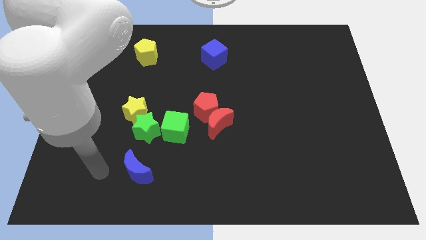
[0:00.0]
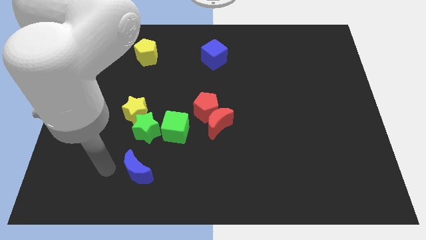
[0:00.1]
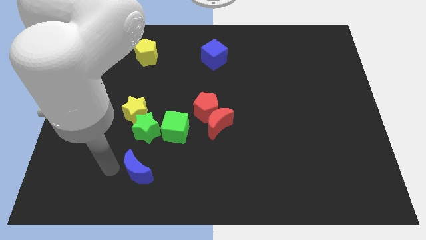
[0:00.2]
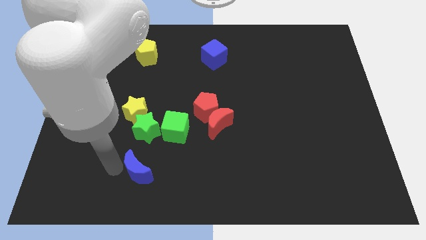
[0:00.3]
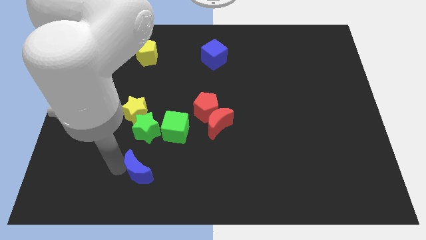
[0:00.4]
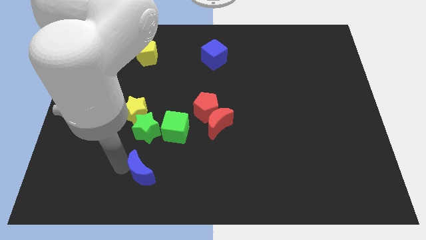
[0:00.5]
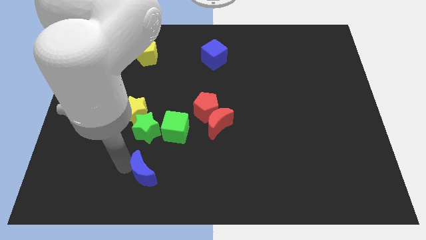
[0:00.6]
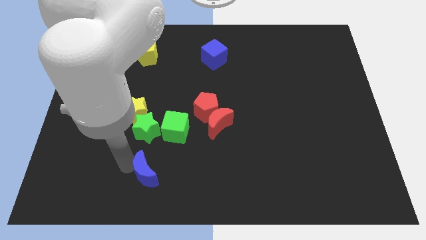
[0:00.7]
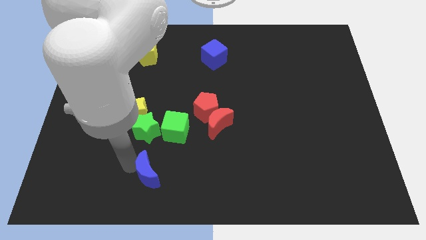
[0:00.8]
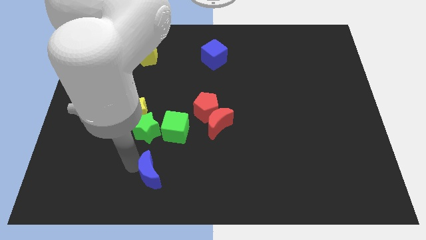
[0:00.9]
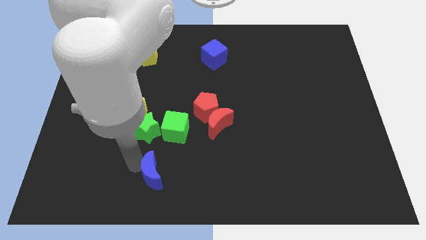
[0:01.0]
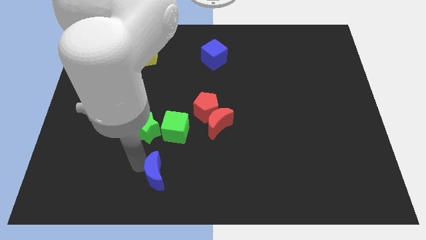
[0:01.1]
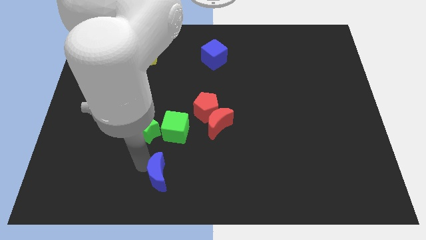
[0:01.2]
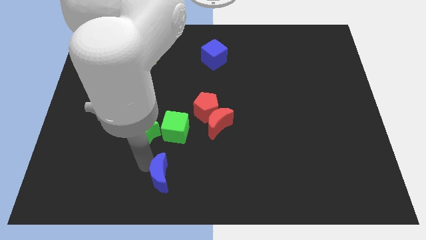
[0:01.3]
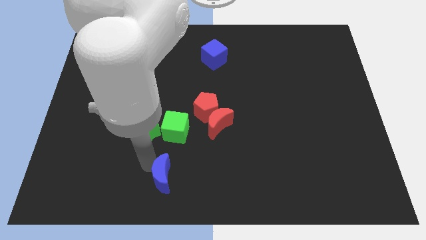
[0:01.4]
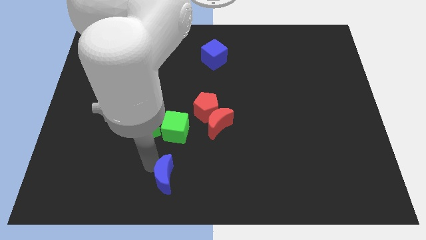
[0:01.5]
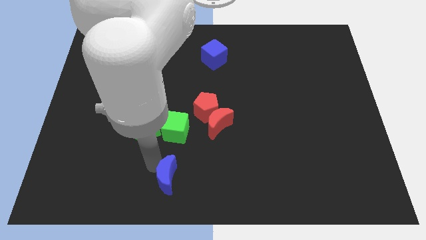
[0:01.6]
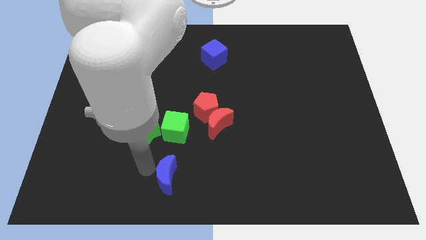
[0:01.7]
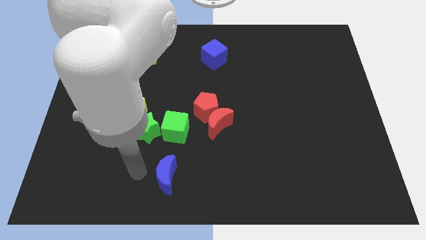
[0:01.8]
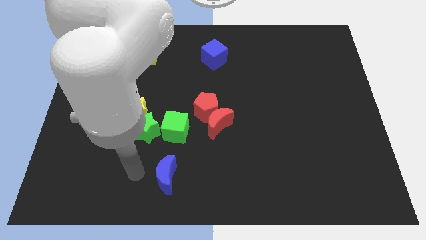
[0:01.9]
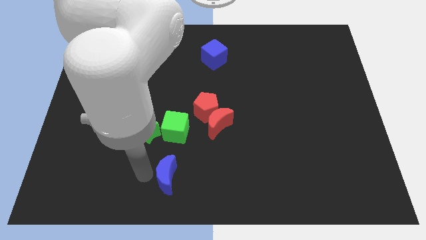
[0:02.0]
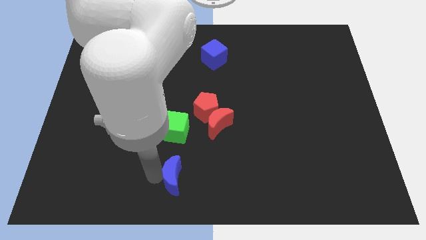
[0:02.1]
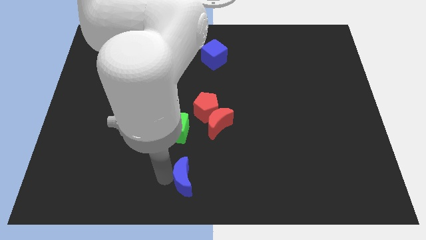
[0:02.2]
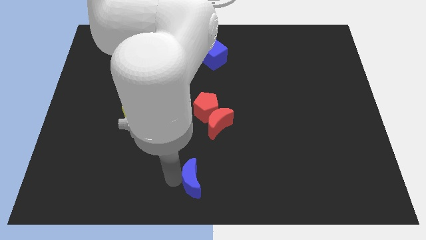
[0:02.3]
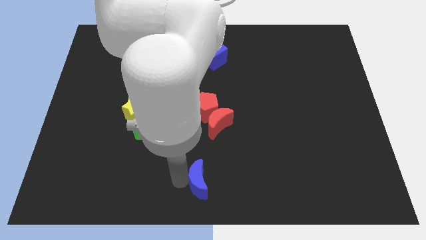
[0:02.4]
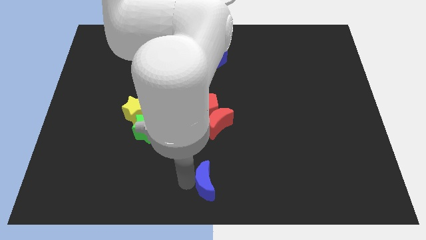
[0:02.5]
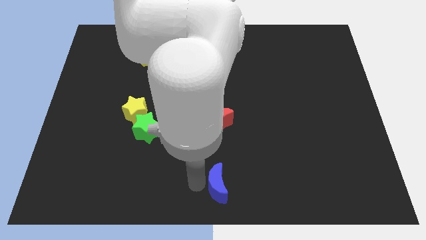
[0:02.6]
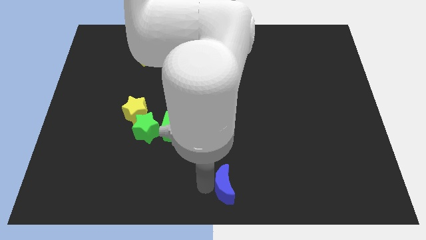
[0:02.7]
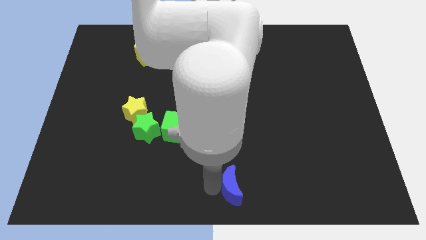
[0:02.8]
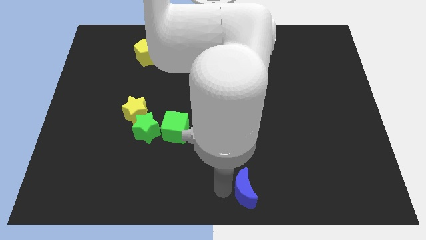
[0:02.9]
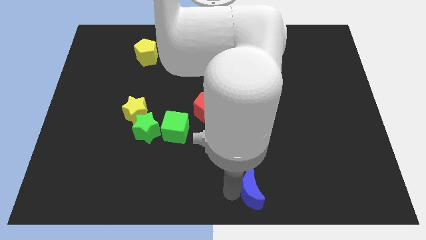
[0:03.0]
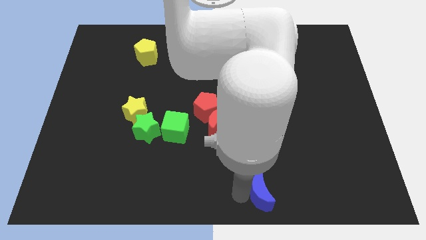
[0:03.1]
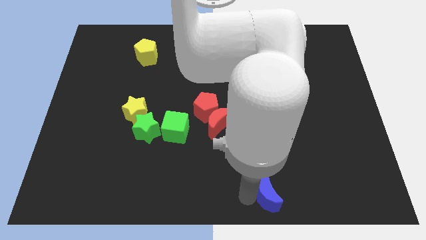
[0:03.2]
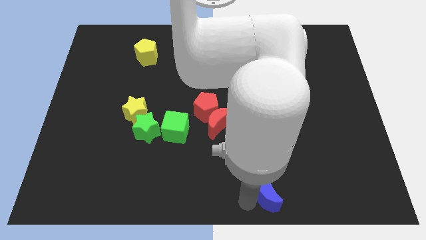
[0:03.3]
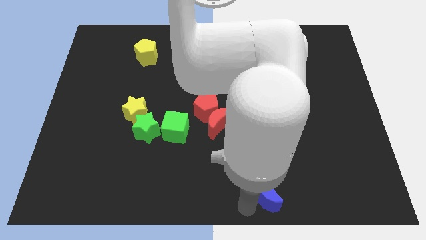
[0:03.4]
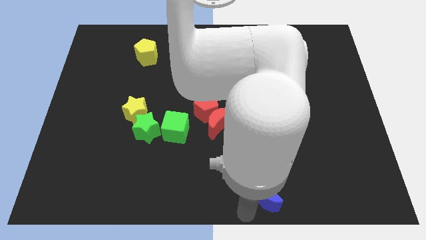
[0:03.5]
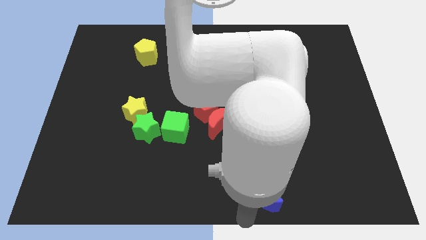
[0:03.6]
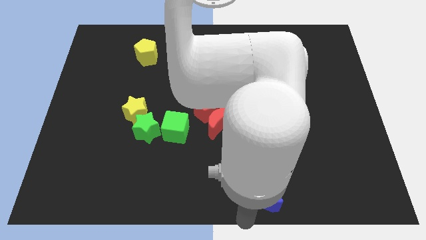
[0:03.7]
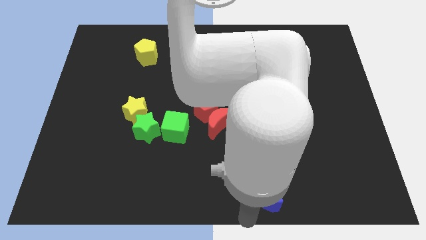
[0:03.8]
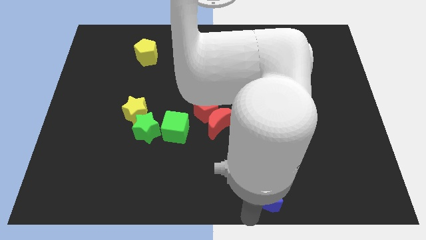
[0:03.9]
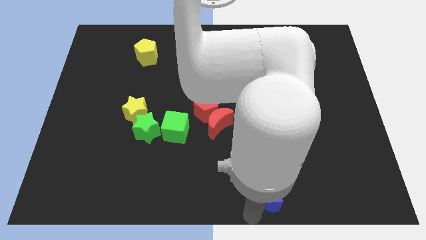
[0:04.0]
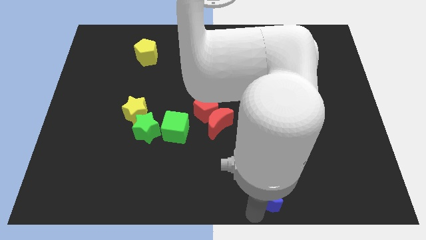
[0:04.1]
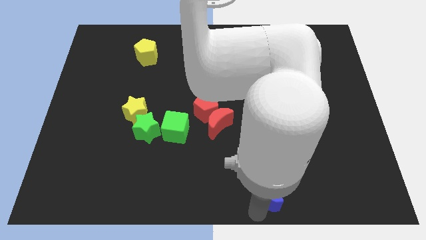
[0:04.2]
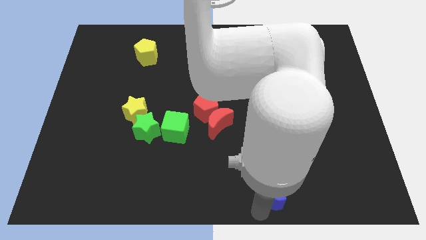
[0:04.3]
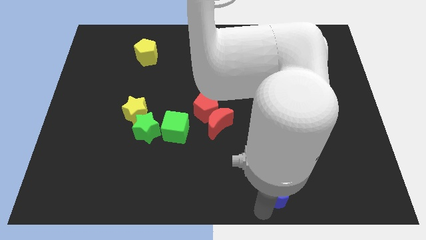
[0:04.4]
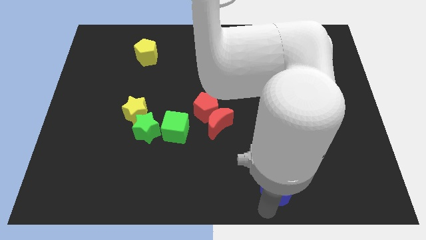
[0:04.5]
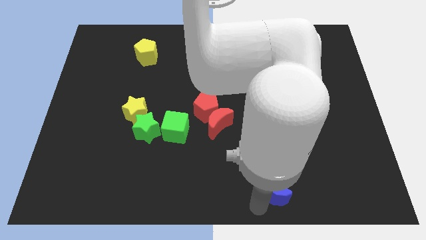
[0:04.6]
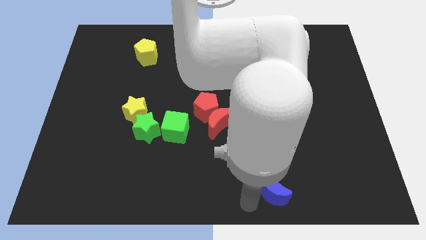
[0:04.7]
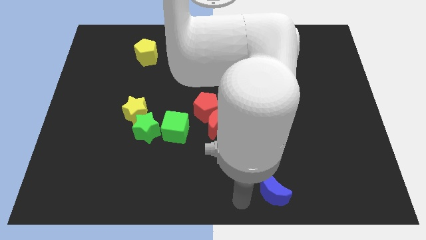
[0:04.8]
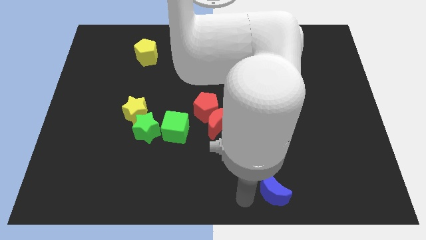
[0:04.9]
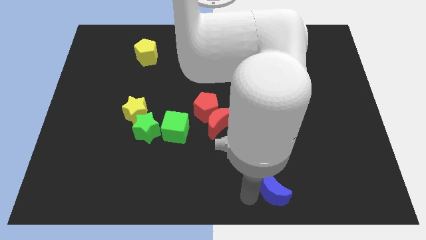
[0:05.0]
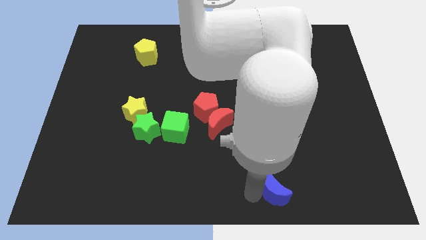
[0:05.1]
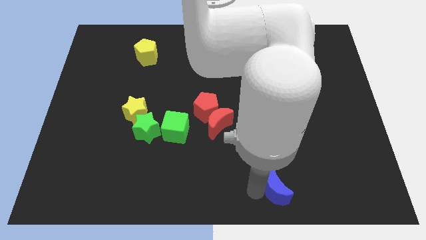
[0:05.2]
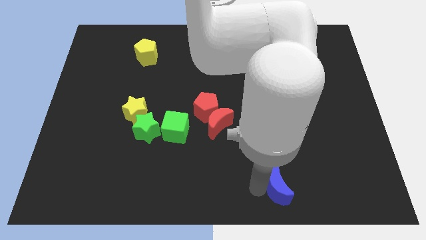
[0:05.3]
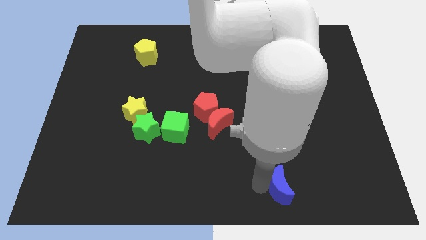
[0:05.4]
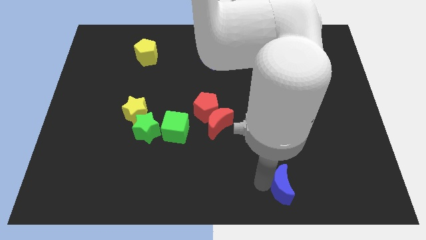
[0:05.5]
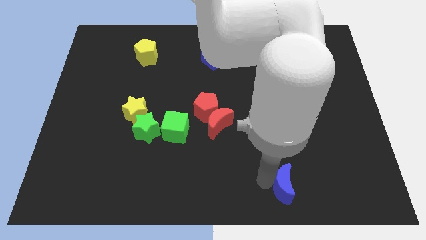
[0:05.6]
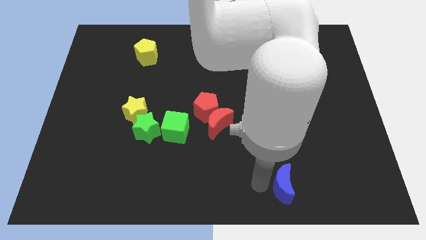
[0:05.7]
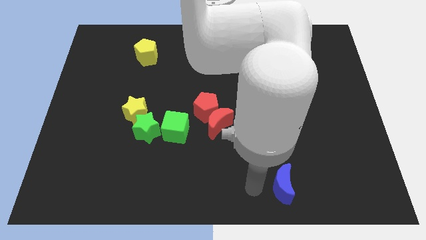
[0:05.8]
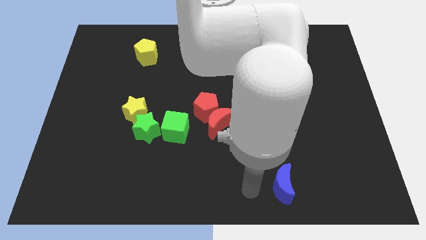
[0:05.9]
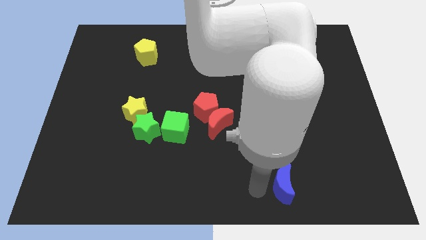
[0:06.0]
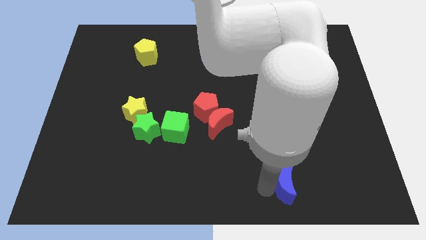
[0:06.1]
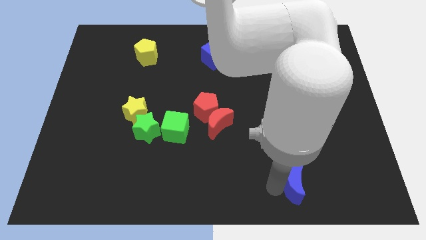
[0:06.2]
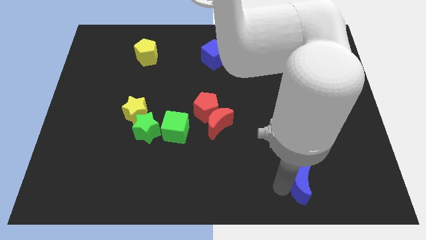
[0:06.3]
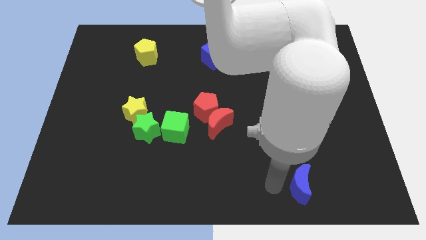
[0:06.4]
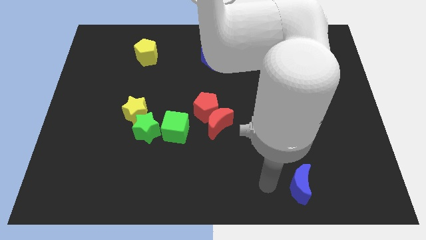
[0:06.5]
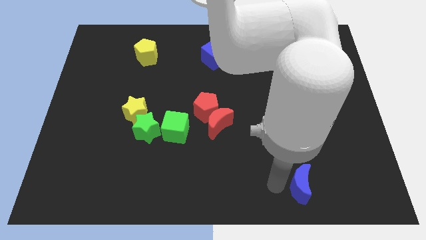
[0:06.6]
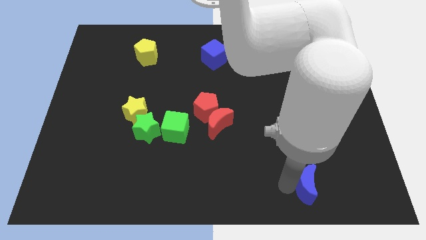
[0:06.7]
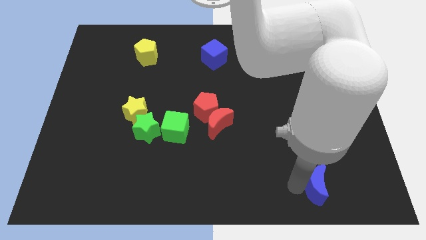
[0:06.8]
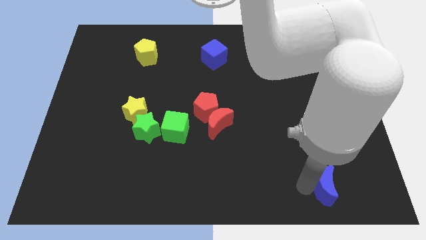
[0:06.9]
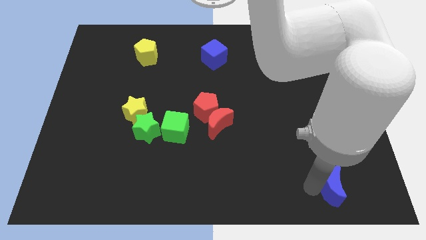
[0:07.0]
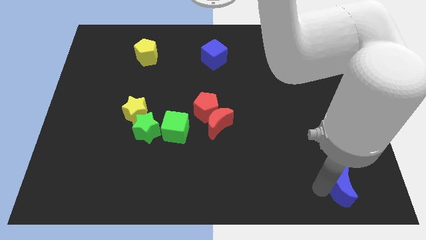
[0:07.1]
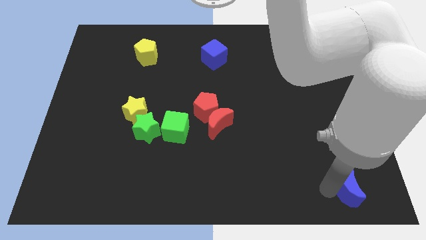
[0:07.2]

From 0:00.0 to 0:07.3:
push the blue moon to the bottom right corner
